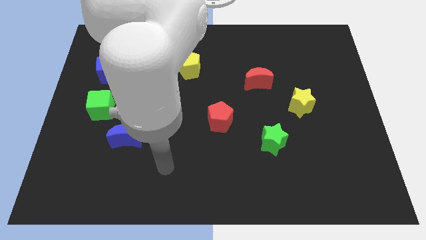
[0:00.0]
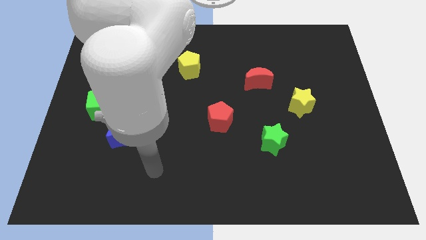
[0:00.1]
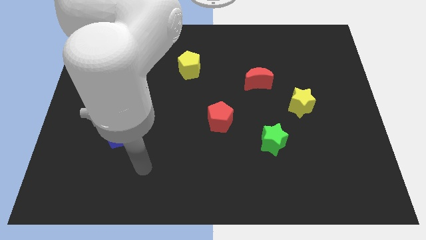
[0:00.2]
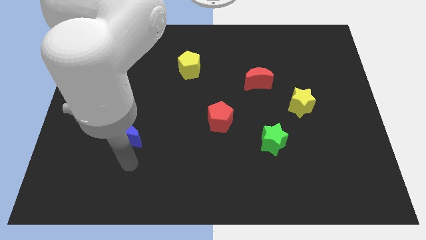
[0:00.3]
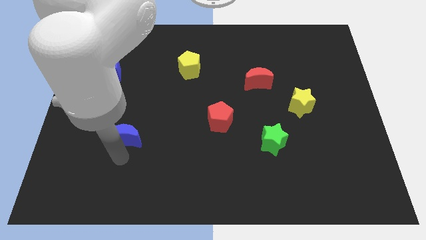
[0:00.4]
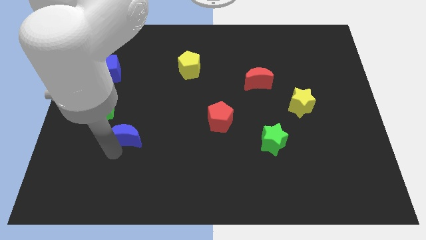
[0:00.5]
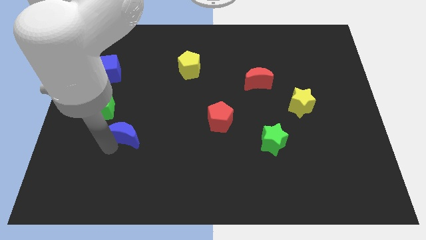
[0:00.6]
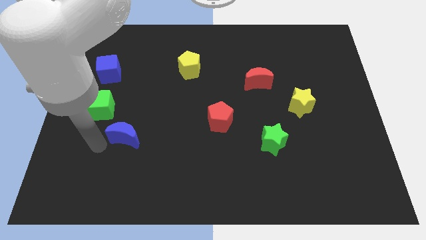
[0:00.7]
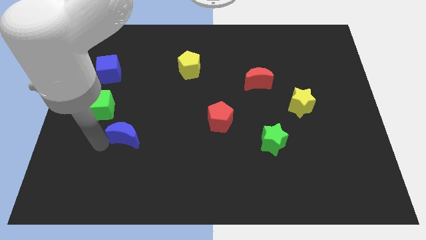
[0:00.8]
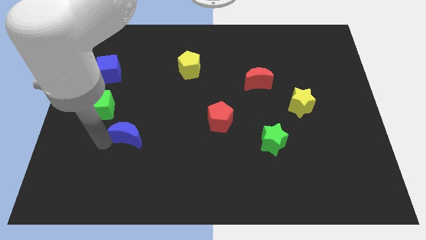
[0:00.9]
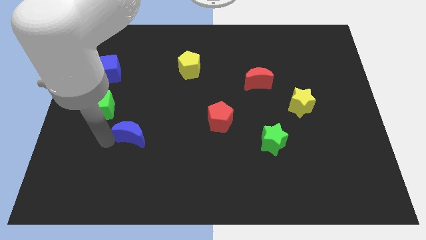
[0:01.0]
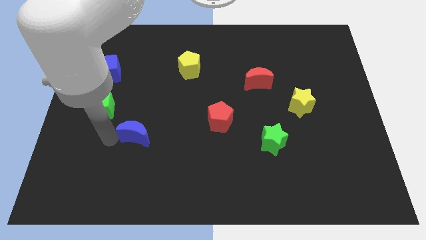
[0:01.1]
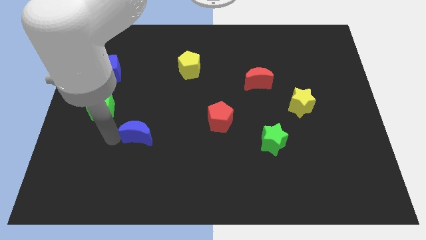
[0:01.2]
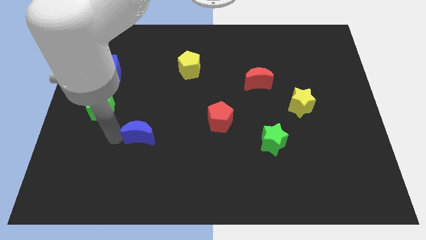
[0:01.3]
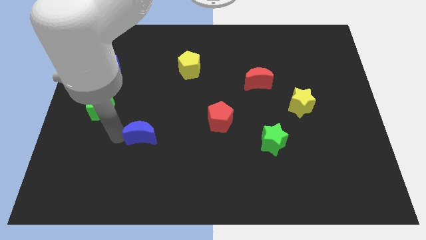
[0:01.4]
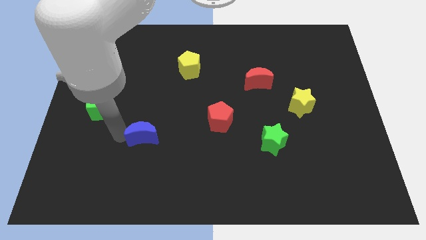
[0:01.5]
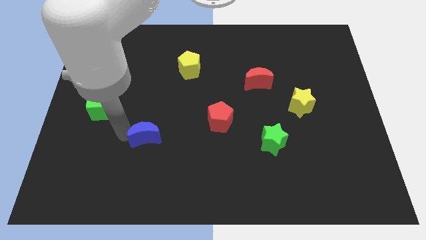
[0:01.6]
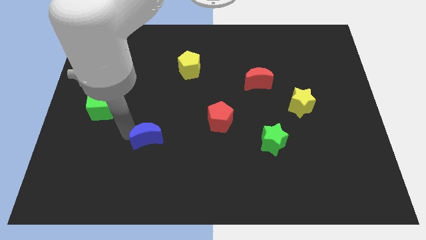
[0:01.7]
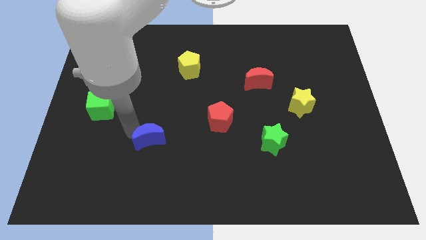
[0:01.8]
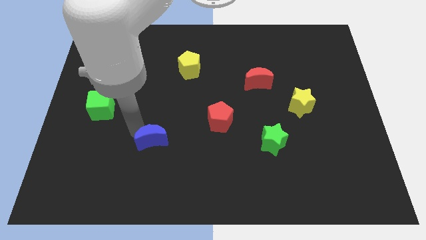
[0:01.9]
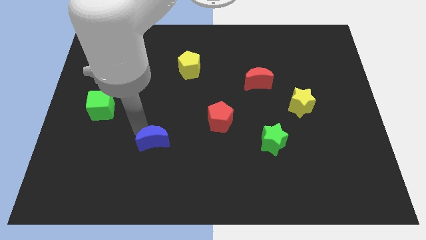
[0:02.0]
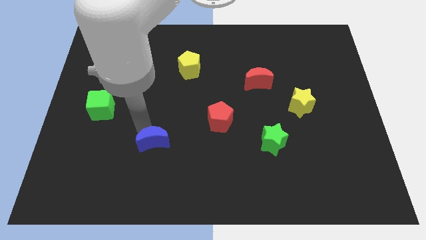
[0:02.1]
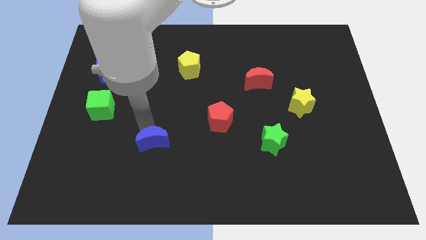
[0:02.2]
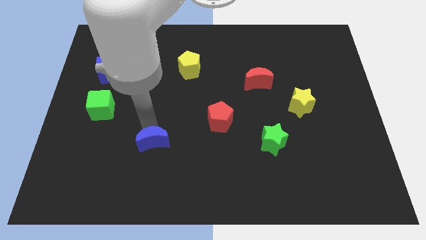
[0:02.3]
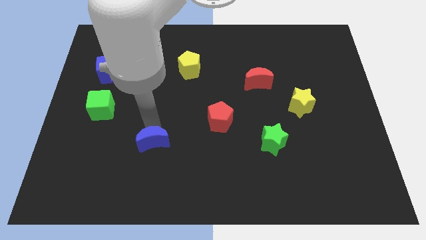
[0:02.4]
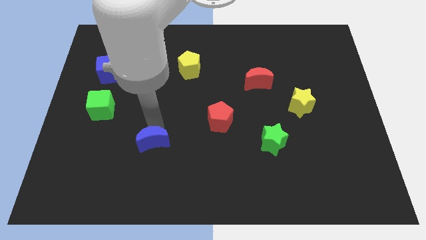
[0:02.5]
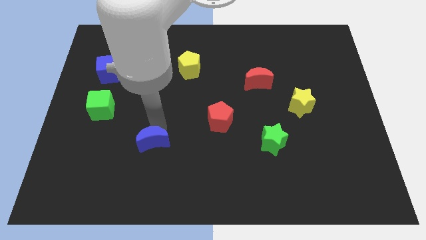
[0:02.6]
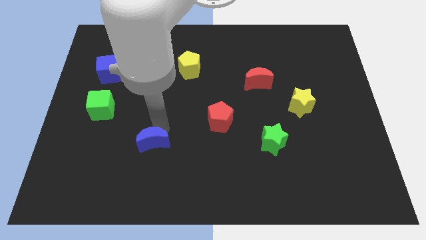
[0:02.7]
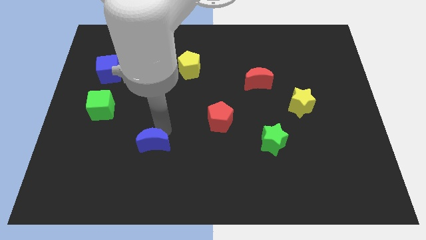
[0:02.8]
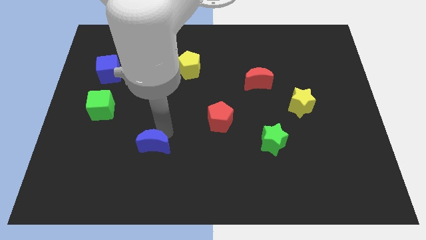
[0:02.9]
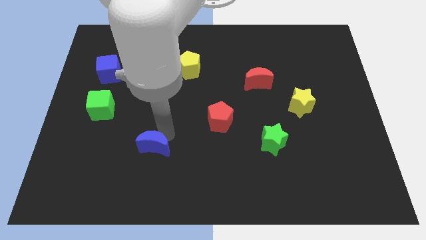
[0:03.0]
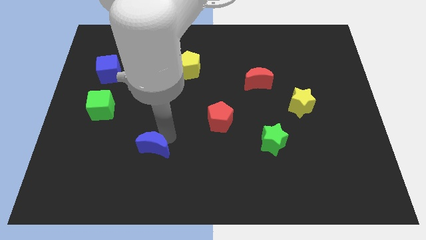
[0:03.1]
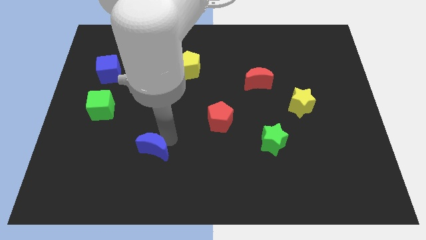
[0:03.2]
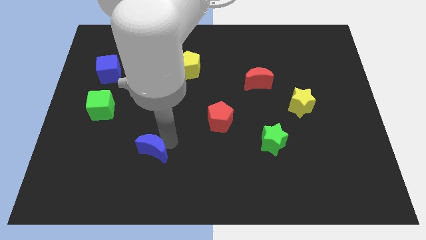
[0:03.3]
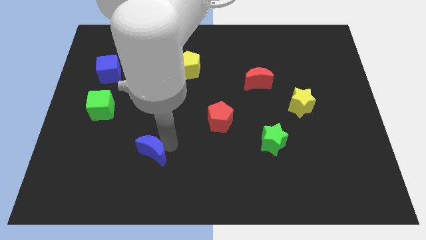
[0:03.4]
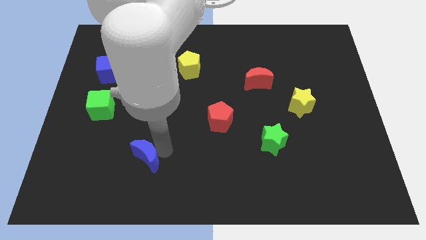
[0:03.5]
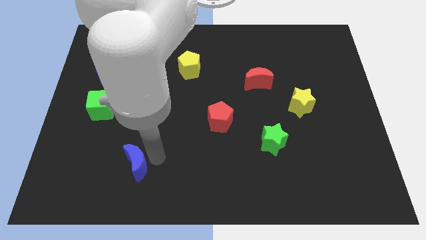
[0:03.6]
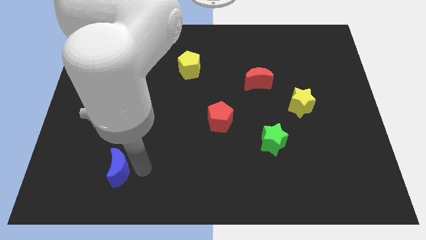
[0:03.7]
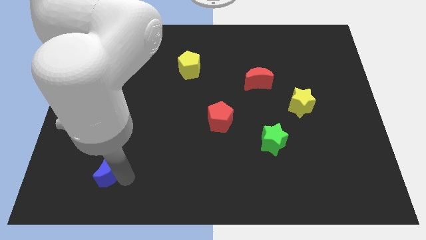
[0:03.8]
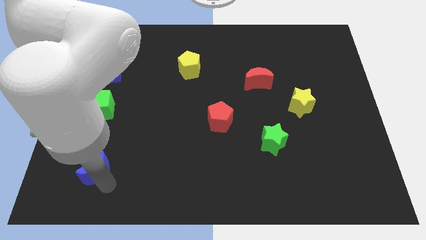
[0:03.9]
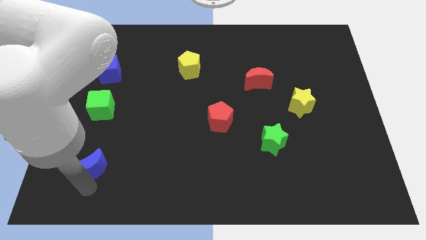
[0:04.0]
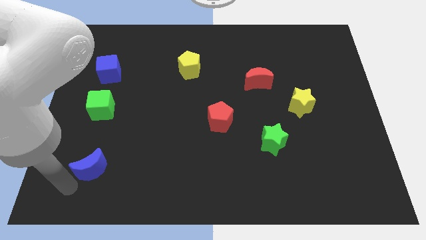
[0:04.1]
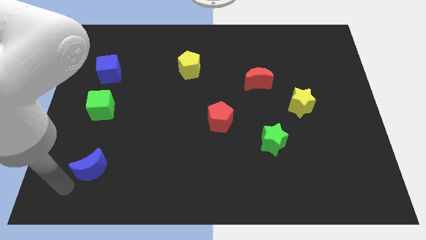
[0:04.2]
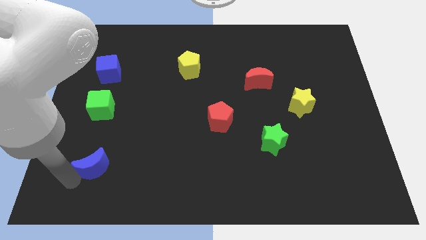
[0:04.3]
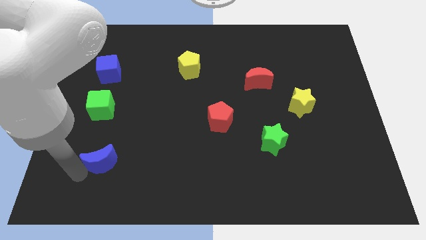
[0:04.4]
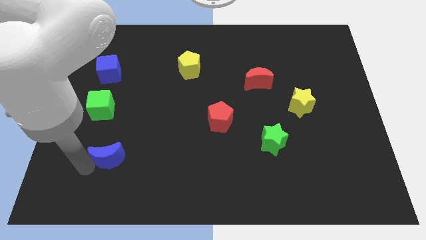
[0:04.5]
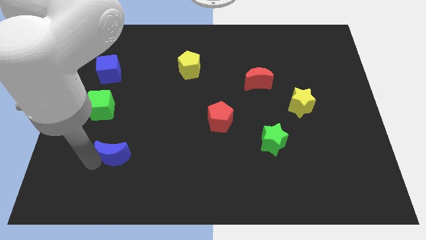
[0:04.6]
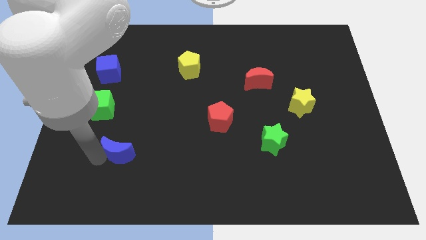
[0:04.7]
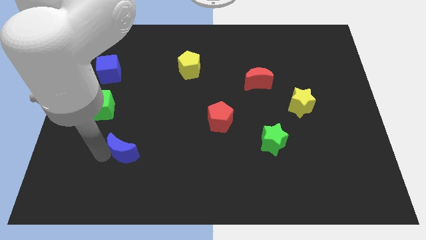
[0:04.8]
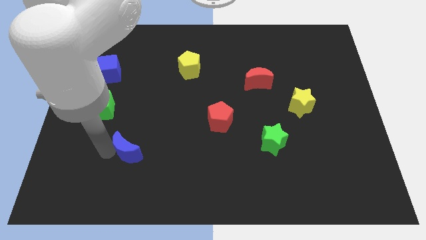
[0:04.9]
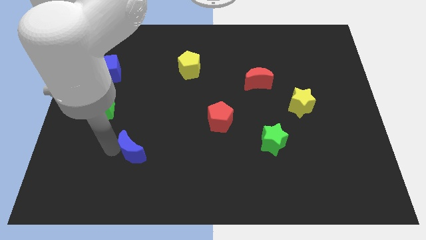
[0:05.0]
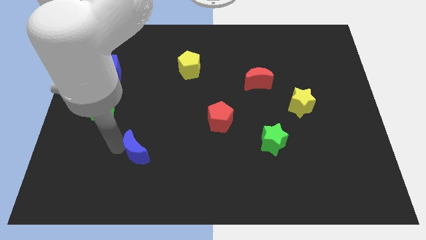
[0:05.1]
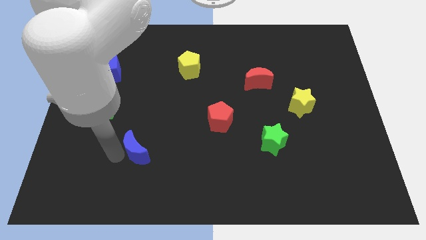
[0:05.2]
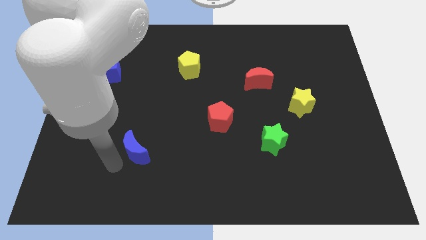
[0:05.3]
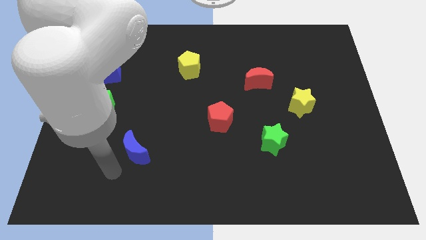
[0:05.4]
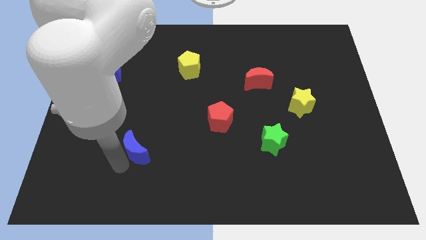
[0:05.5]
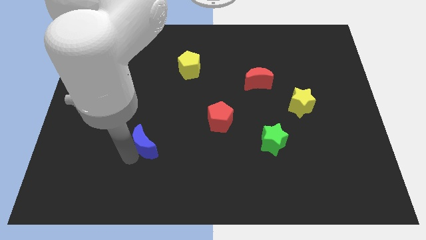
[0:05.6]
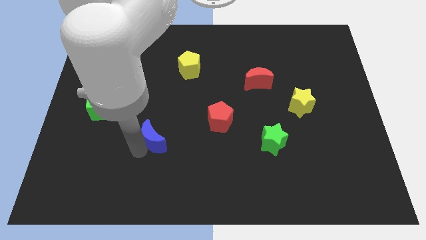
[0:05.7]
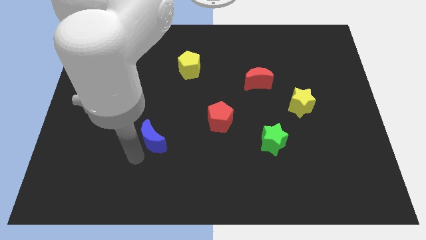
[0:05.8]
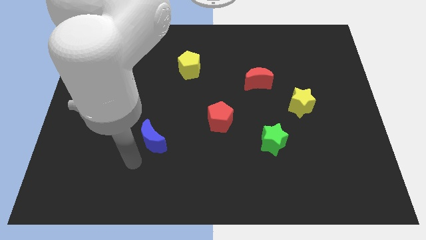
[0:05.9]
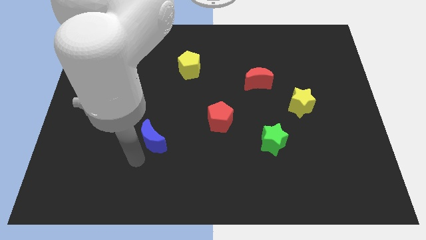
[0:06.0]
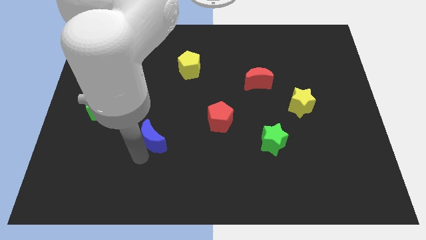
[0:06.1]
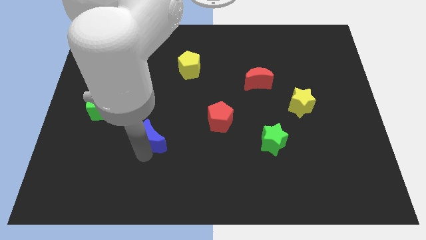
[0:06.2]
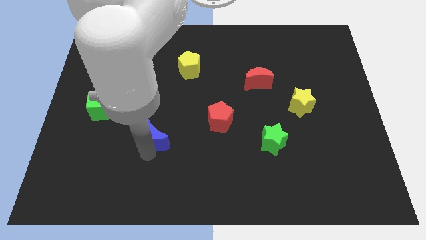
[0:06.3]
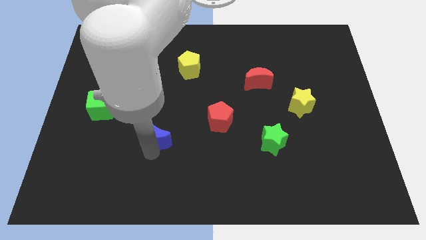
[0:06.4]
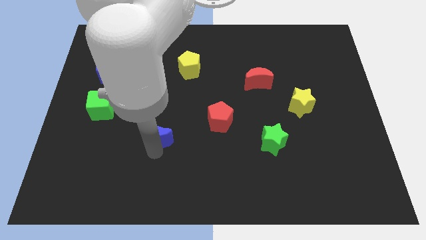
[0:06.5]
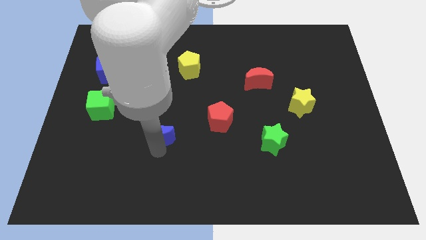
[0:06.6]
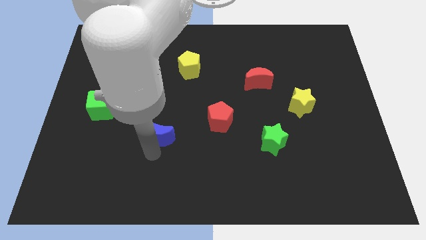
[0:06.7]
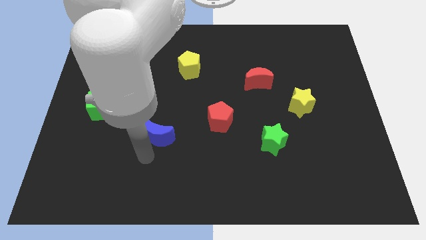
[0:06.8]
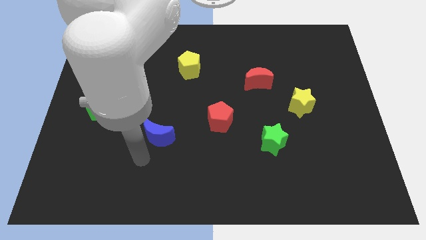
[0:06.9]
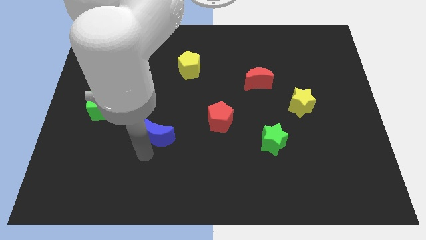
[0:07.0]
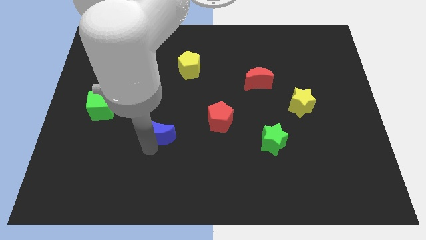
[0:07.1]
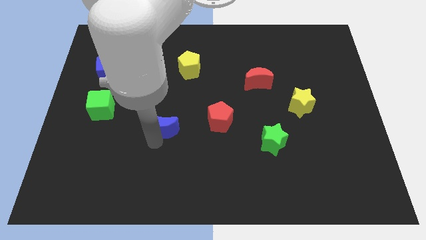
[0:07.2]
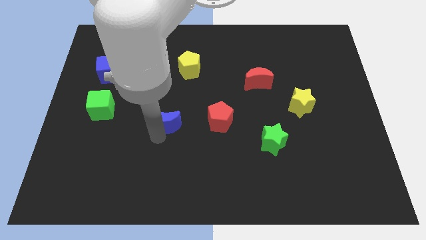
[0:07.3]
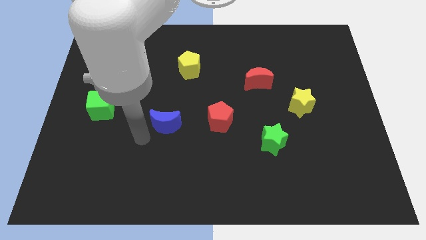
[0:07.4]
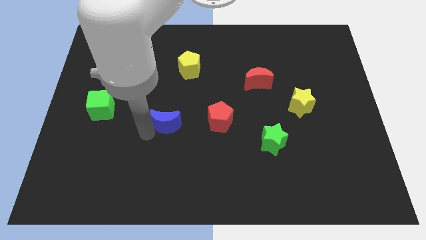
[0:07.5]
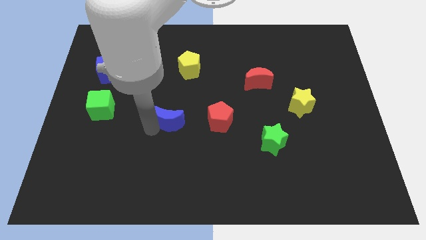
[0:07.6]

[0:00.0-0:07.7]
put the blue moon to the middle

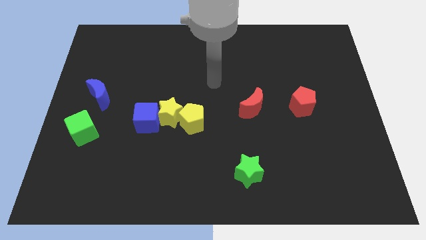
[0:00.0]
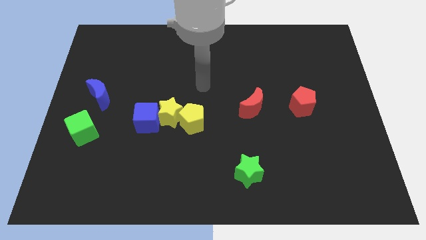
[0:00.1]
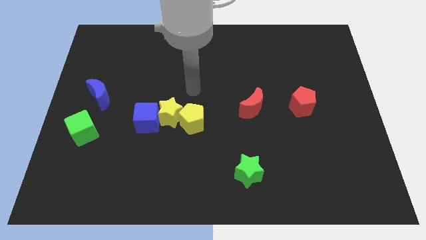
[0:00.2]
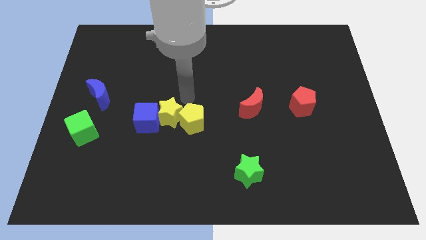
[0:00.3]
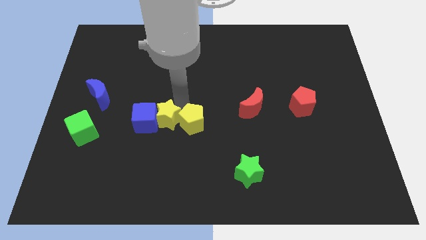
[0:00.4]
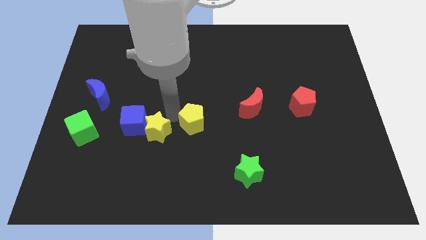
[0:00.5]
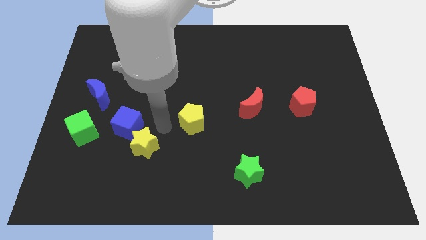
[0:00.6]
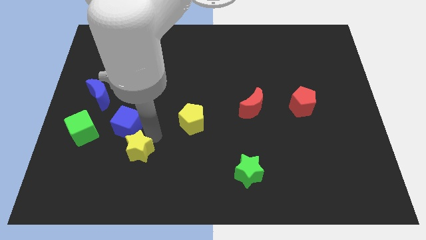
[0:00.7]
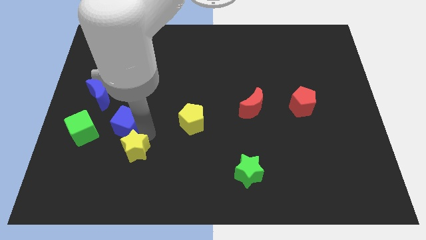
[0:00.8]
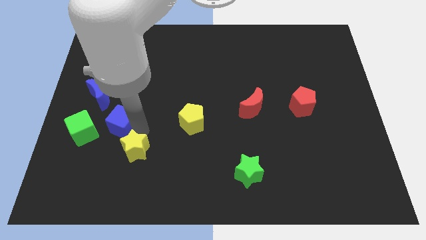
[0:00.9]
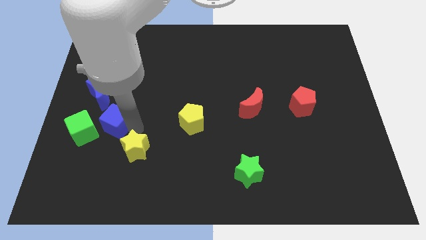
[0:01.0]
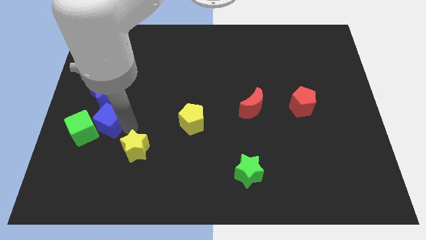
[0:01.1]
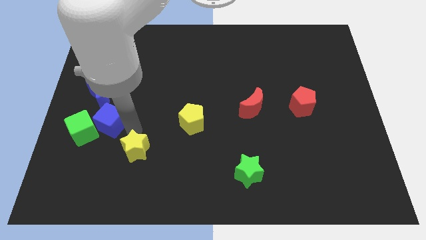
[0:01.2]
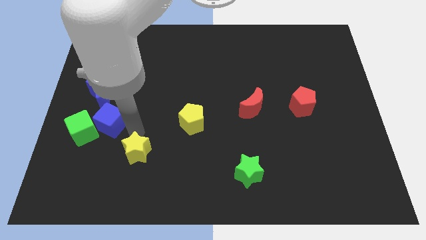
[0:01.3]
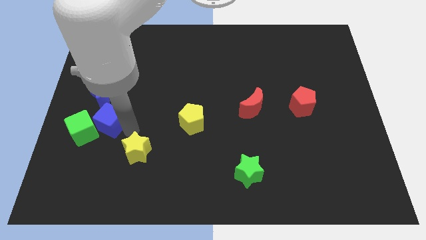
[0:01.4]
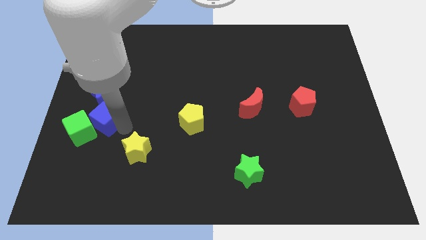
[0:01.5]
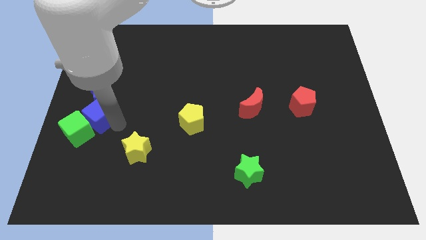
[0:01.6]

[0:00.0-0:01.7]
move the blue cube to the left side of the board
